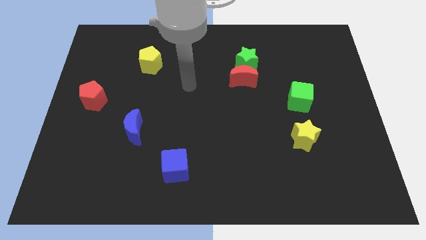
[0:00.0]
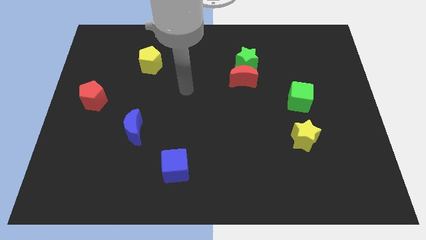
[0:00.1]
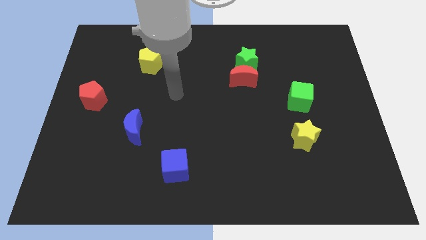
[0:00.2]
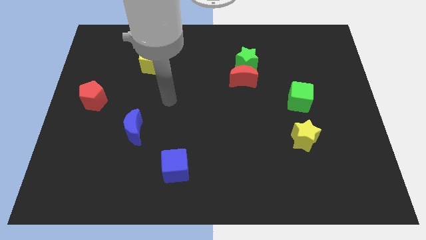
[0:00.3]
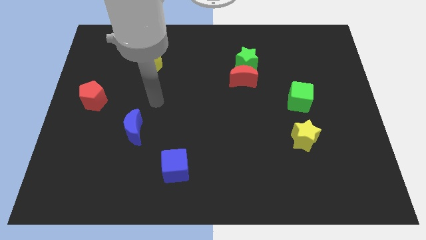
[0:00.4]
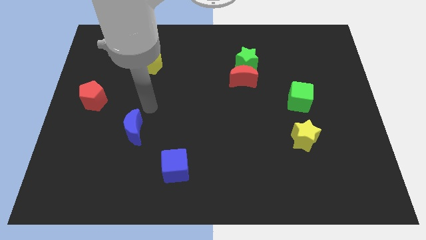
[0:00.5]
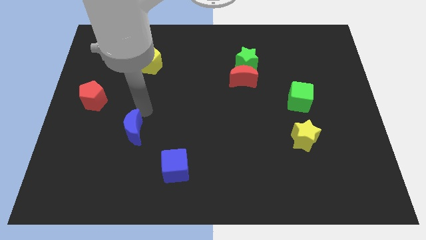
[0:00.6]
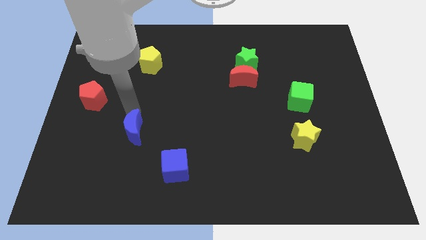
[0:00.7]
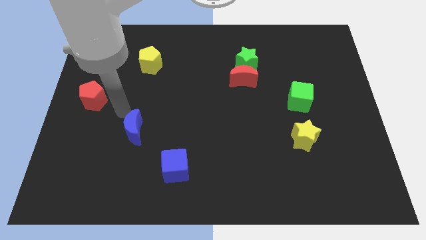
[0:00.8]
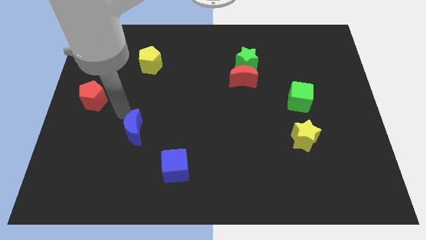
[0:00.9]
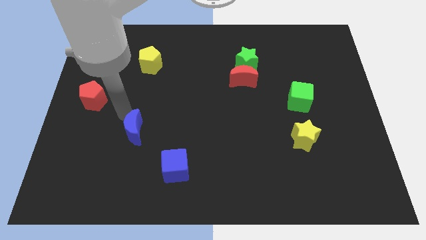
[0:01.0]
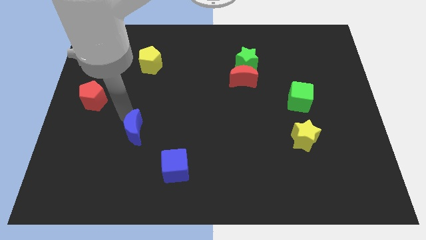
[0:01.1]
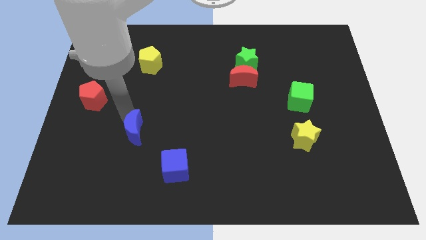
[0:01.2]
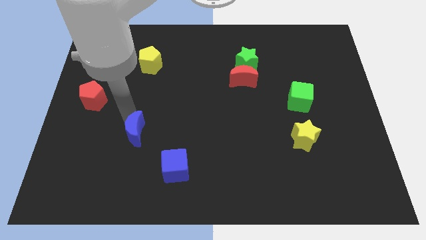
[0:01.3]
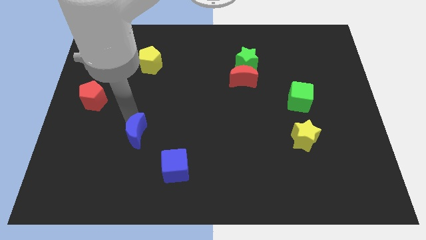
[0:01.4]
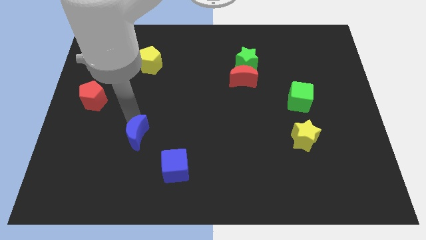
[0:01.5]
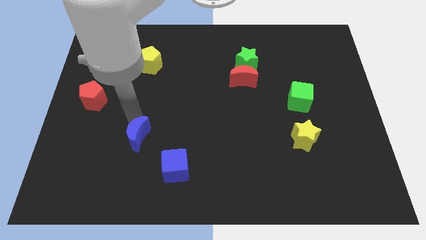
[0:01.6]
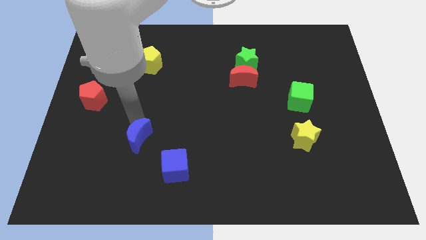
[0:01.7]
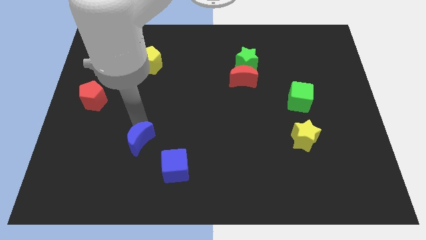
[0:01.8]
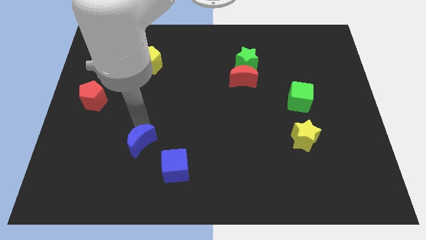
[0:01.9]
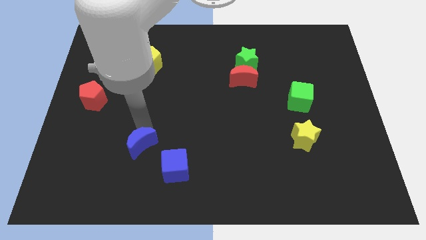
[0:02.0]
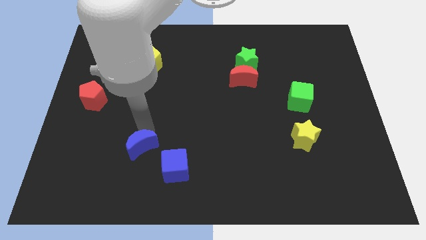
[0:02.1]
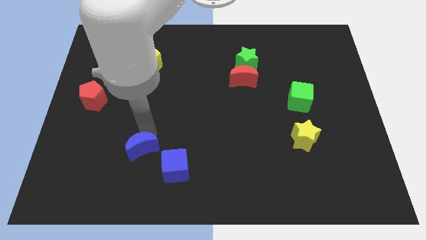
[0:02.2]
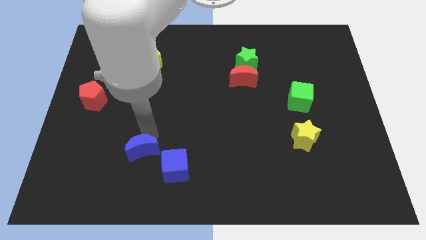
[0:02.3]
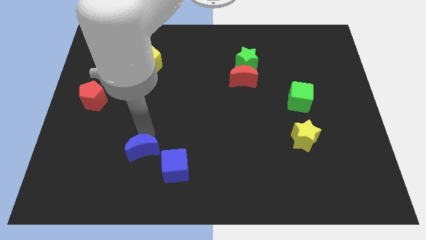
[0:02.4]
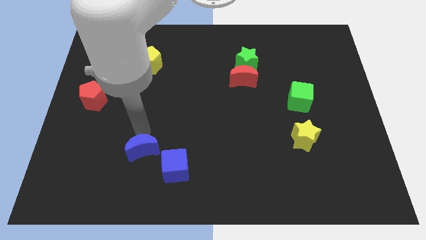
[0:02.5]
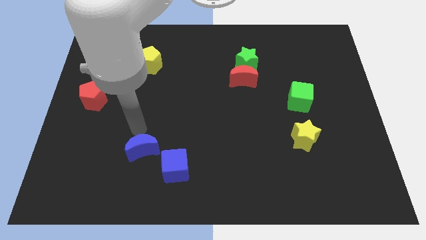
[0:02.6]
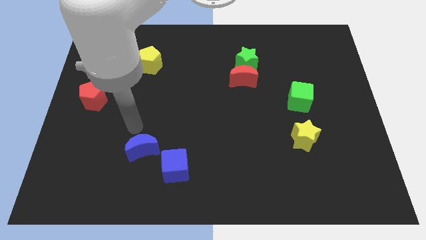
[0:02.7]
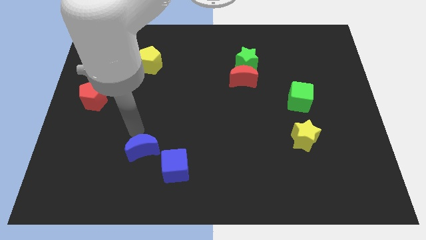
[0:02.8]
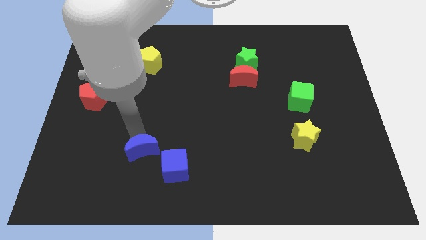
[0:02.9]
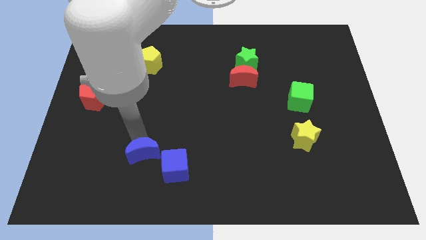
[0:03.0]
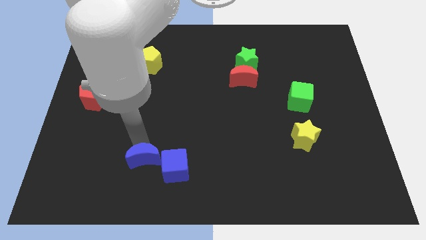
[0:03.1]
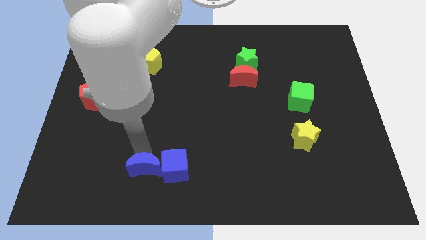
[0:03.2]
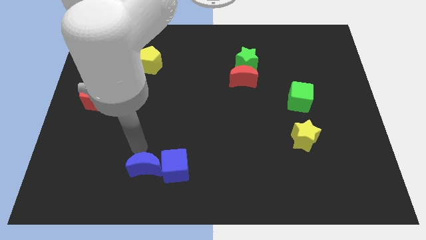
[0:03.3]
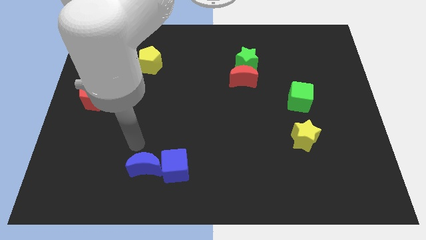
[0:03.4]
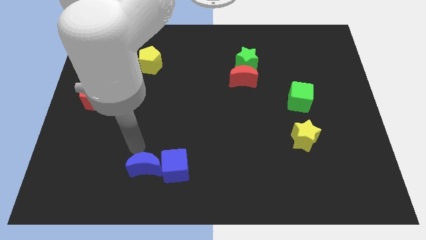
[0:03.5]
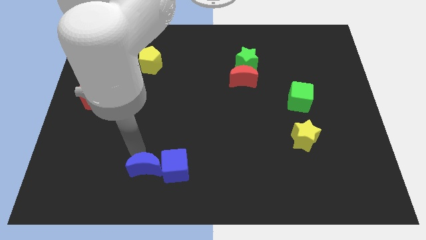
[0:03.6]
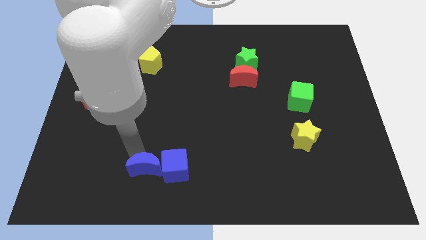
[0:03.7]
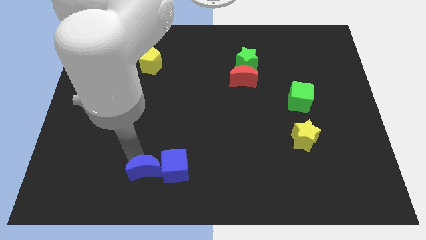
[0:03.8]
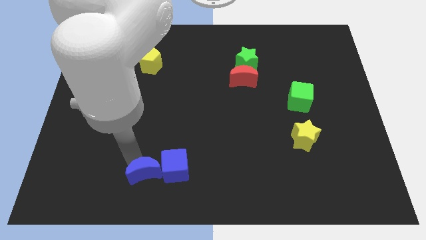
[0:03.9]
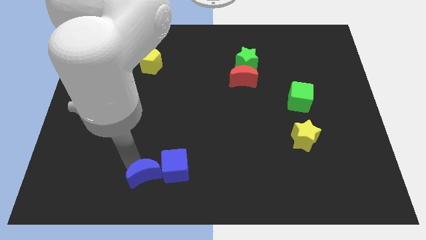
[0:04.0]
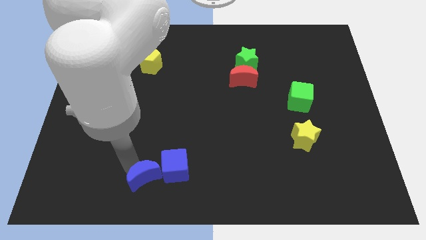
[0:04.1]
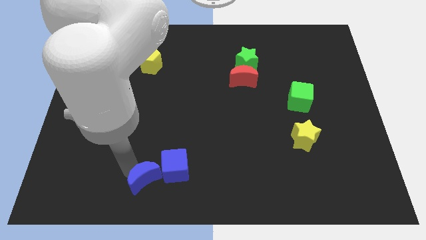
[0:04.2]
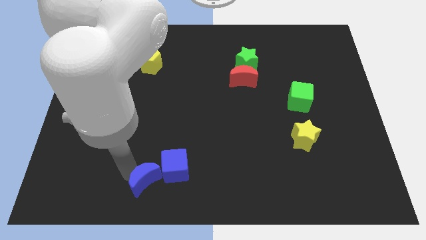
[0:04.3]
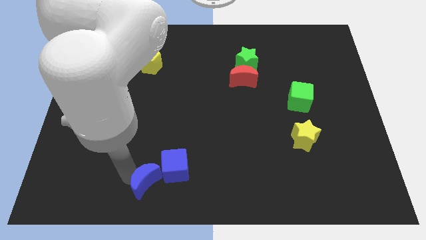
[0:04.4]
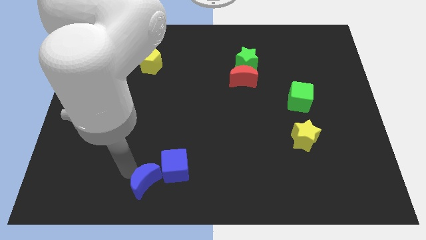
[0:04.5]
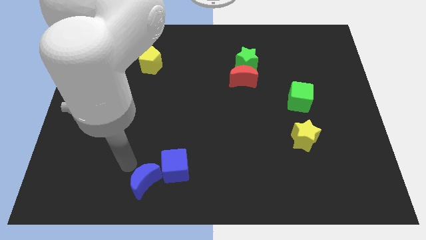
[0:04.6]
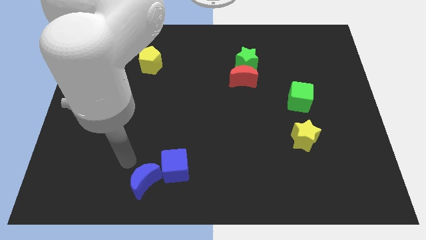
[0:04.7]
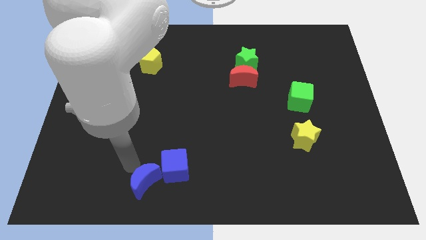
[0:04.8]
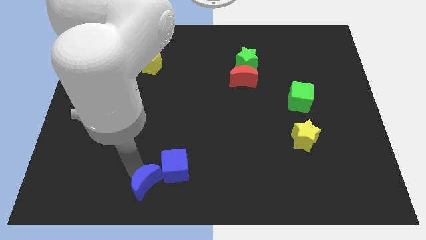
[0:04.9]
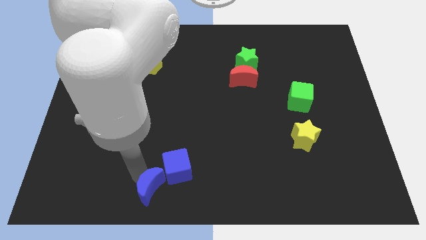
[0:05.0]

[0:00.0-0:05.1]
move the blue moon to the bottom
